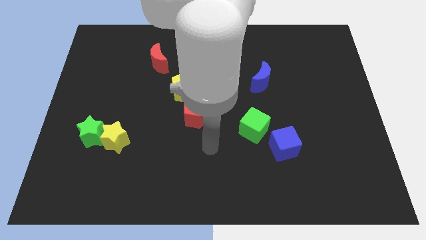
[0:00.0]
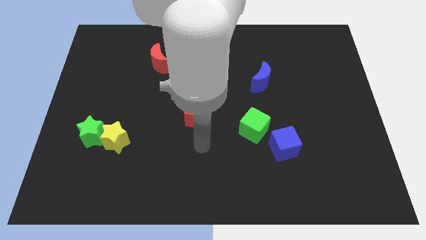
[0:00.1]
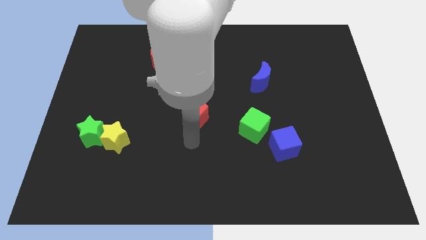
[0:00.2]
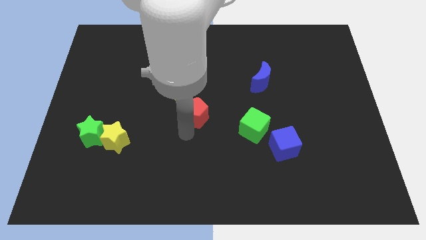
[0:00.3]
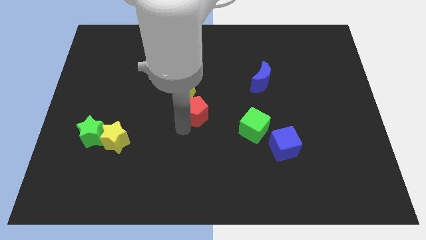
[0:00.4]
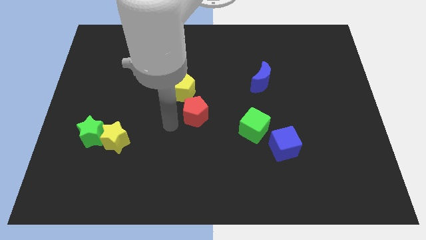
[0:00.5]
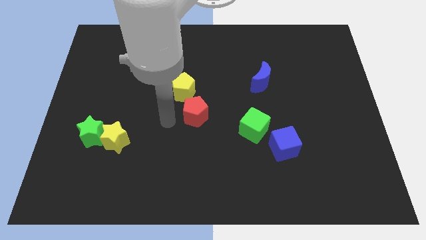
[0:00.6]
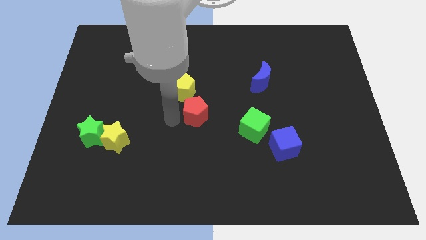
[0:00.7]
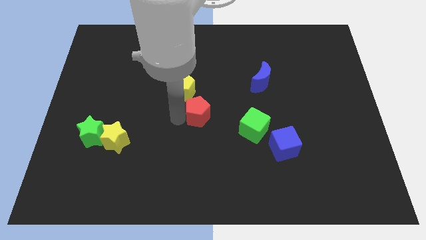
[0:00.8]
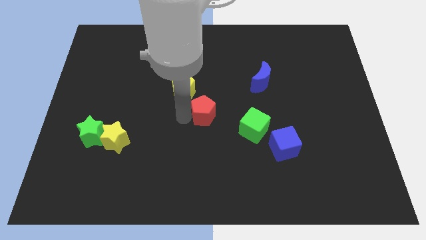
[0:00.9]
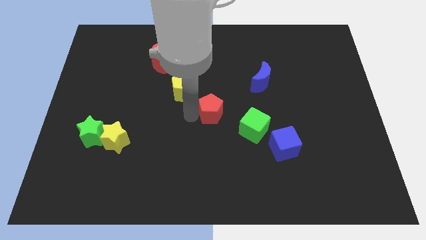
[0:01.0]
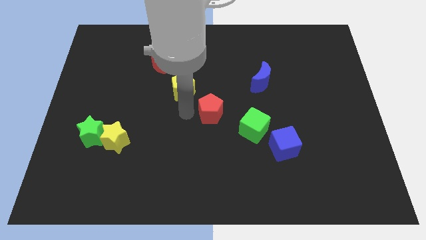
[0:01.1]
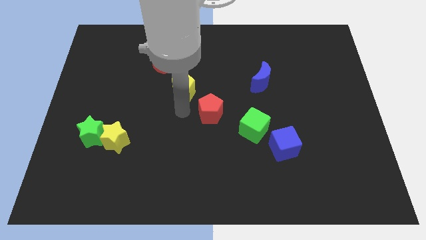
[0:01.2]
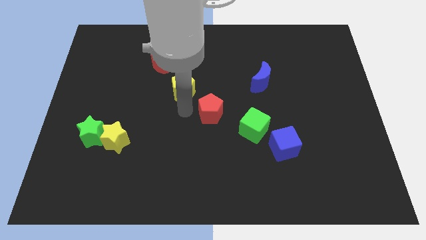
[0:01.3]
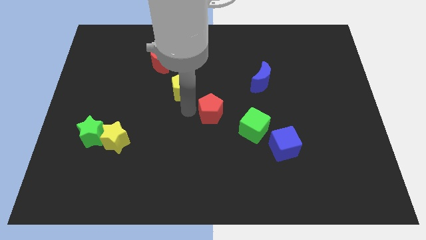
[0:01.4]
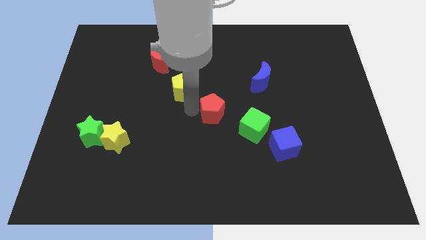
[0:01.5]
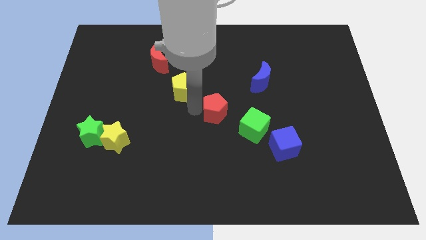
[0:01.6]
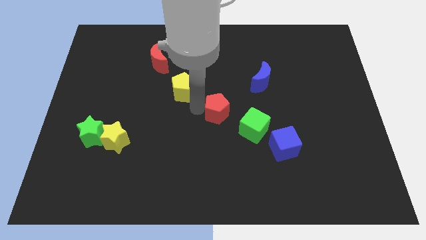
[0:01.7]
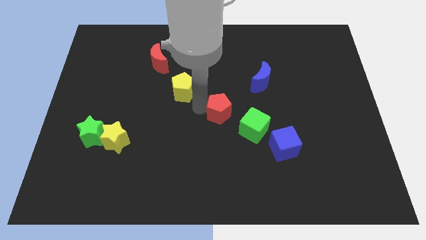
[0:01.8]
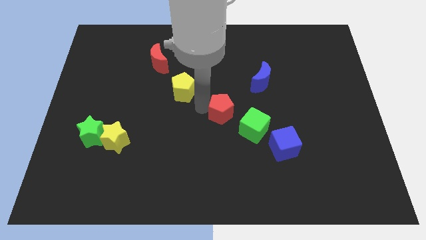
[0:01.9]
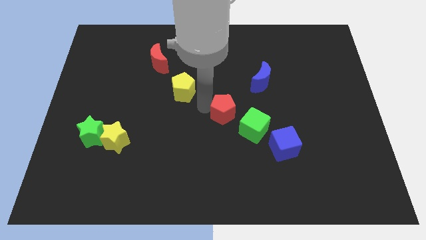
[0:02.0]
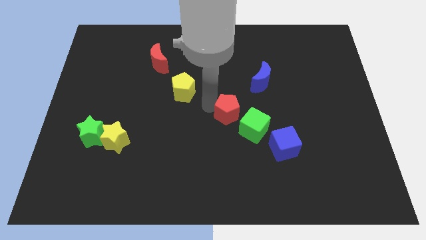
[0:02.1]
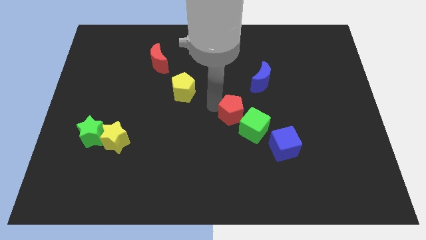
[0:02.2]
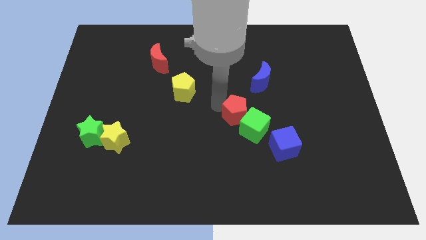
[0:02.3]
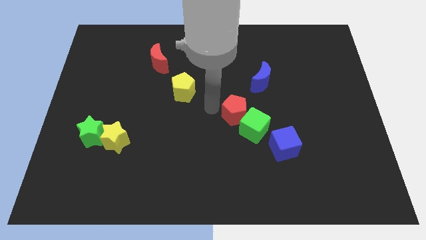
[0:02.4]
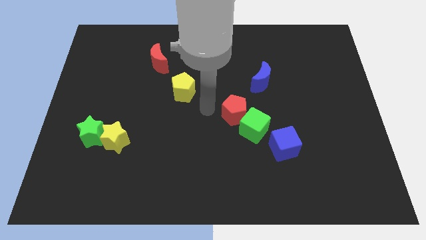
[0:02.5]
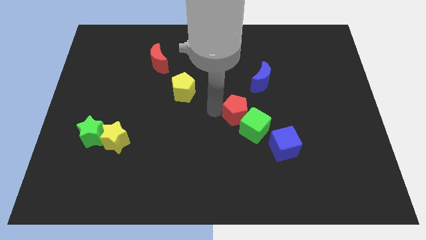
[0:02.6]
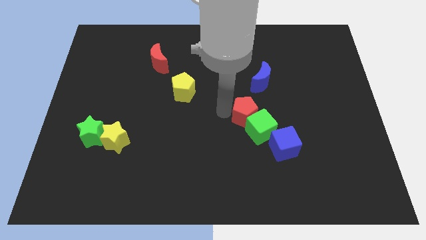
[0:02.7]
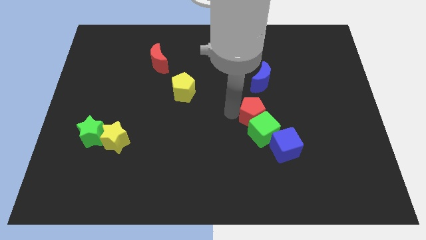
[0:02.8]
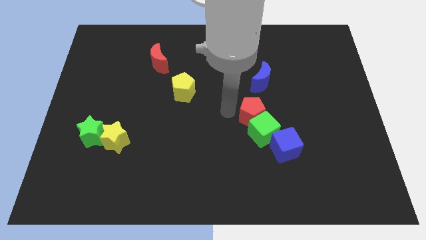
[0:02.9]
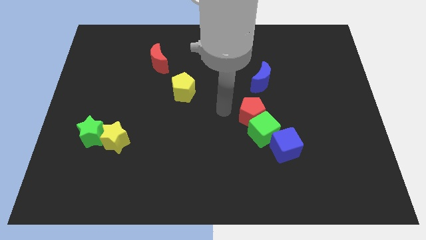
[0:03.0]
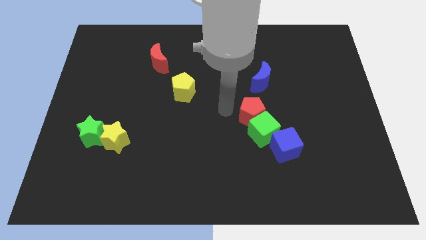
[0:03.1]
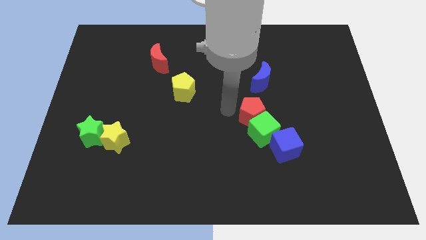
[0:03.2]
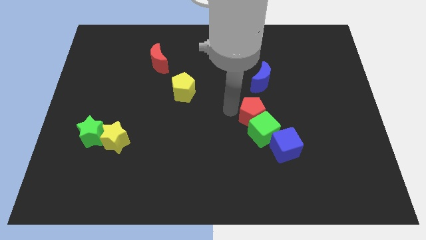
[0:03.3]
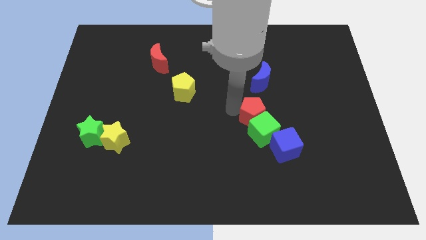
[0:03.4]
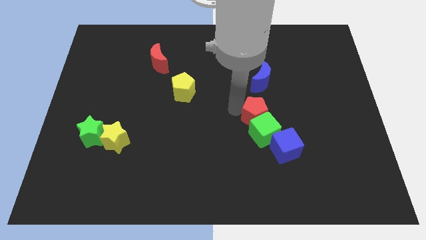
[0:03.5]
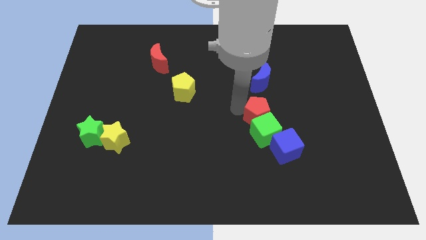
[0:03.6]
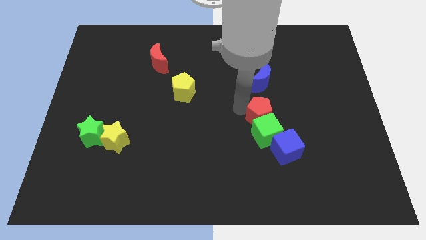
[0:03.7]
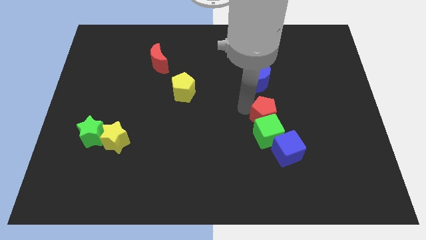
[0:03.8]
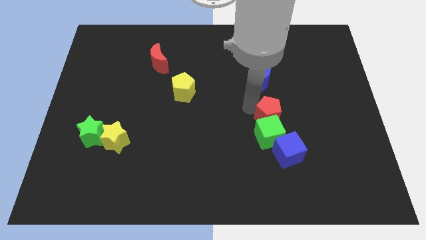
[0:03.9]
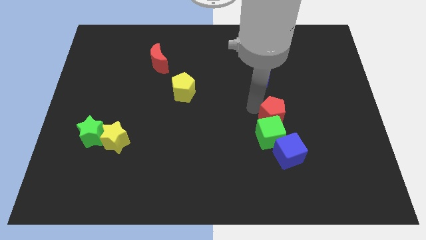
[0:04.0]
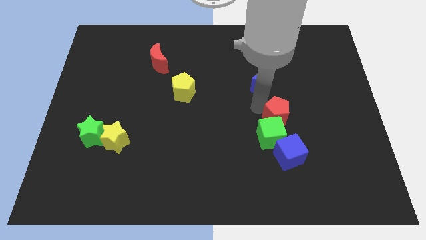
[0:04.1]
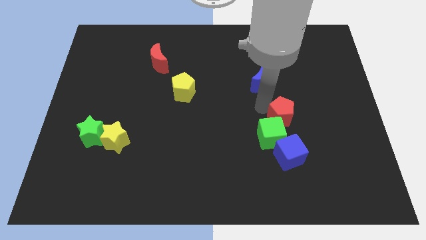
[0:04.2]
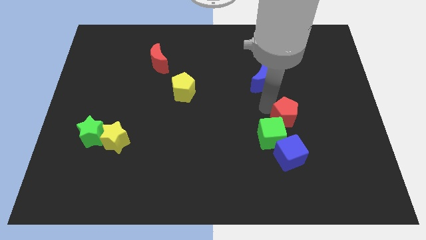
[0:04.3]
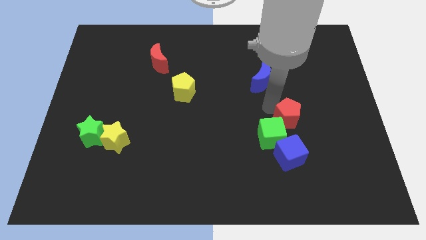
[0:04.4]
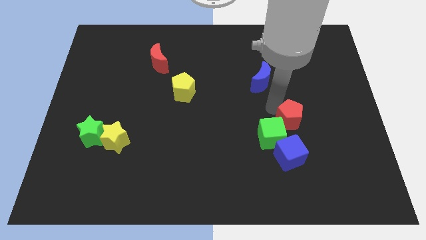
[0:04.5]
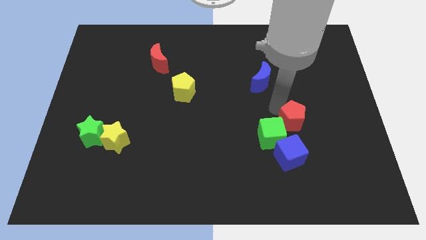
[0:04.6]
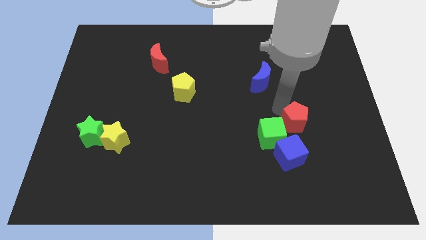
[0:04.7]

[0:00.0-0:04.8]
put the red pentagon to the top right side of the blue cube

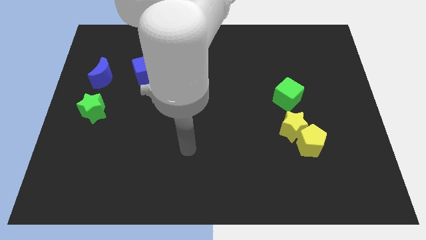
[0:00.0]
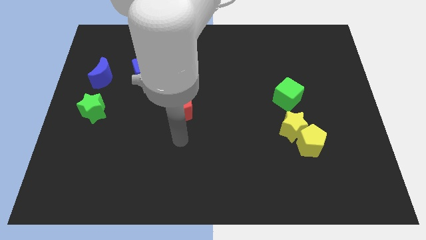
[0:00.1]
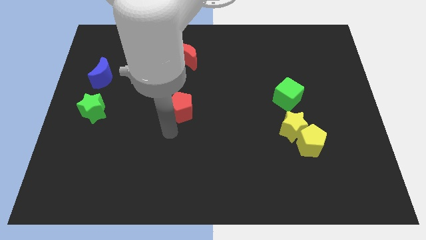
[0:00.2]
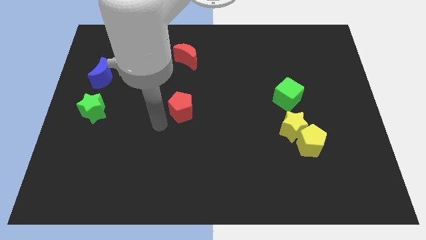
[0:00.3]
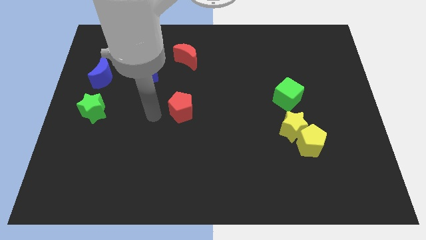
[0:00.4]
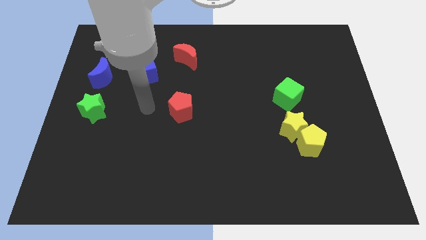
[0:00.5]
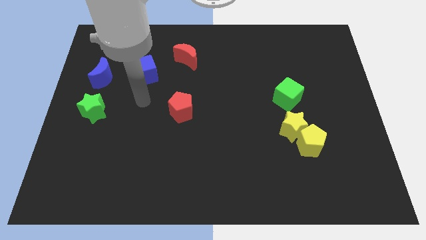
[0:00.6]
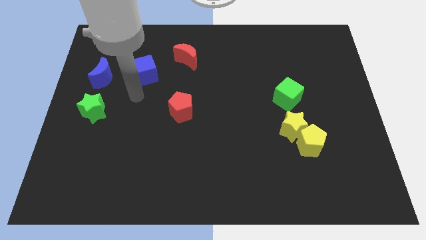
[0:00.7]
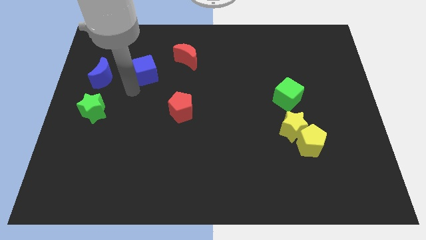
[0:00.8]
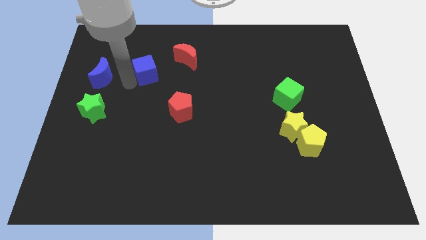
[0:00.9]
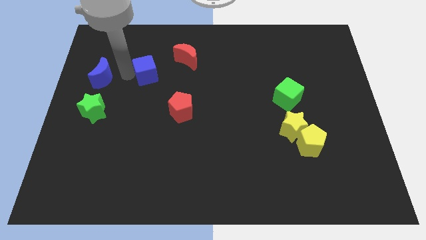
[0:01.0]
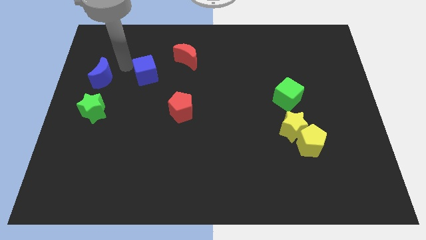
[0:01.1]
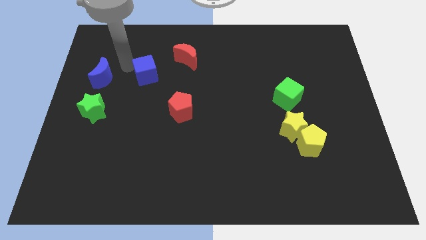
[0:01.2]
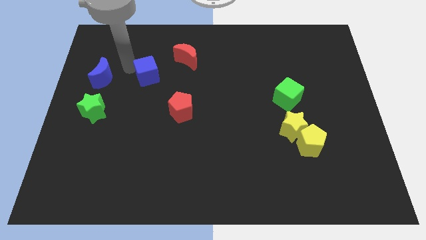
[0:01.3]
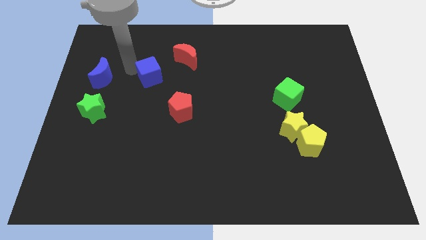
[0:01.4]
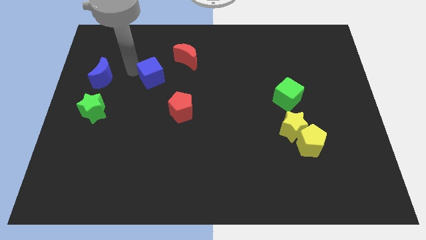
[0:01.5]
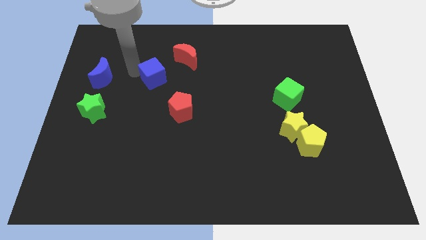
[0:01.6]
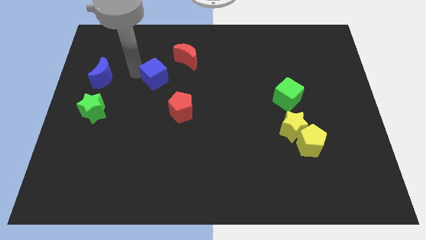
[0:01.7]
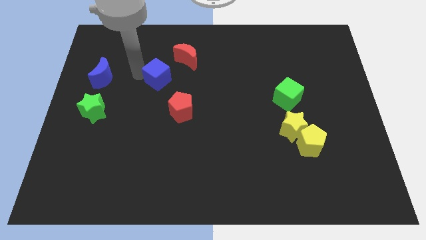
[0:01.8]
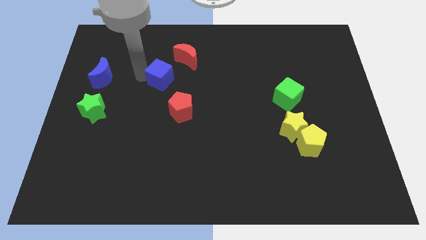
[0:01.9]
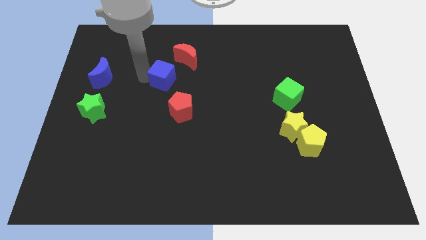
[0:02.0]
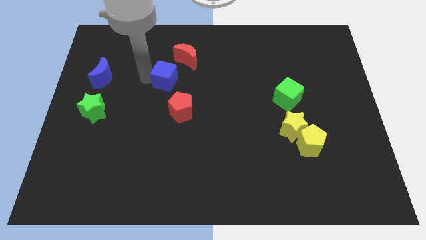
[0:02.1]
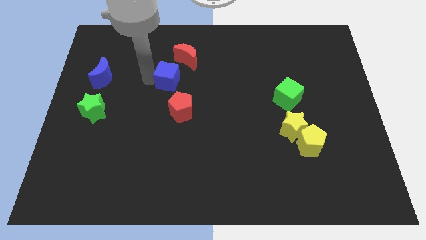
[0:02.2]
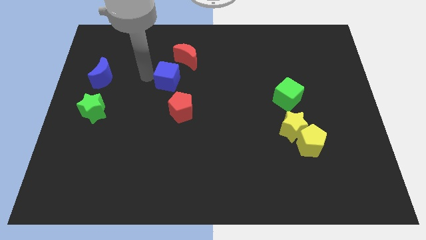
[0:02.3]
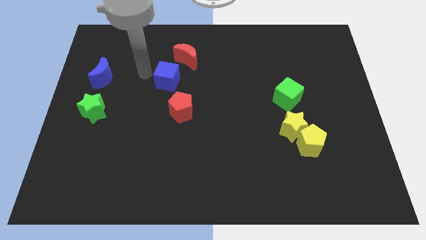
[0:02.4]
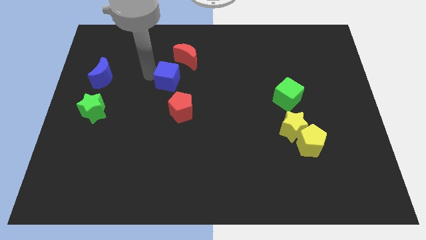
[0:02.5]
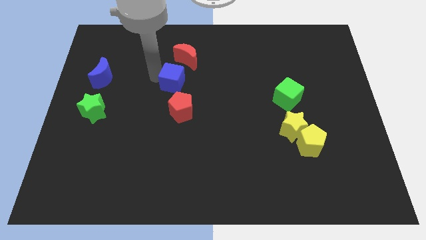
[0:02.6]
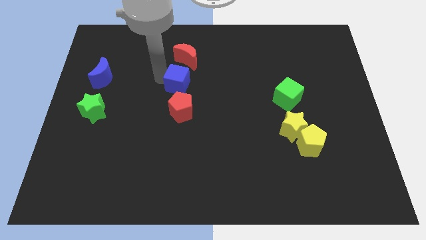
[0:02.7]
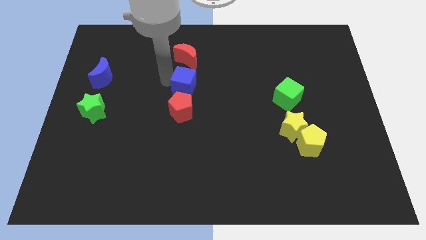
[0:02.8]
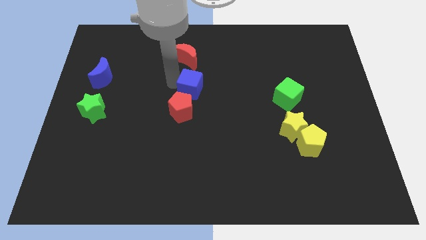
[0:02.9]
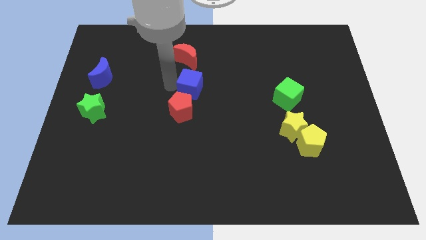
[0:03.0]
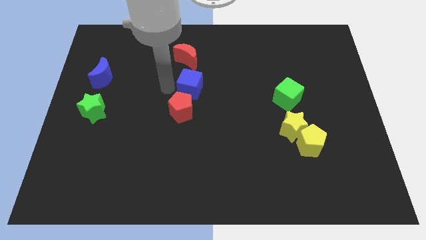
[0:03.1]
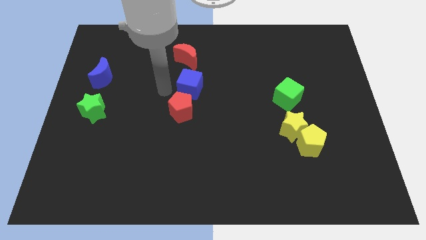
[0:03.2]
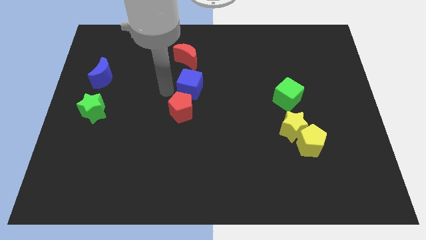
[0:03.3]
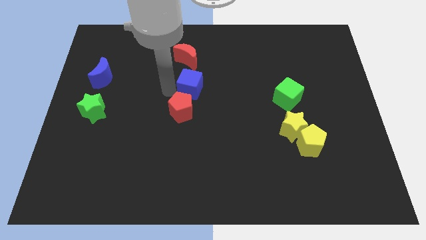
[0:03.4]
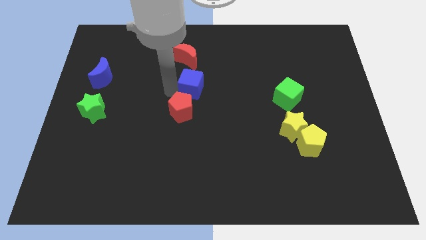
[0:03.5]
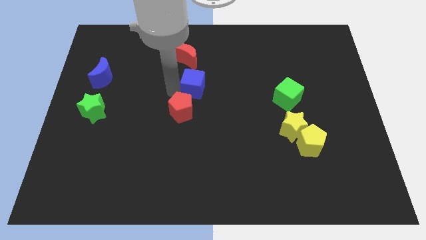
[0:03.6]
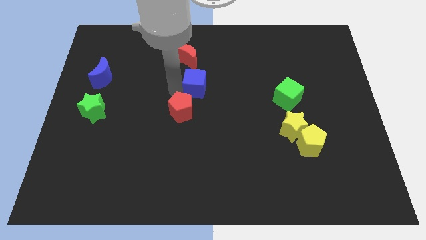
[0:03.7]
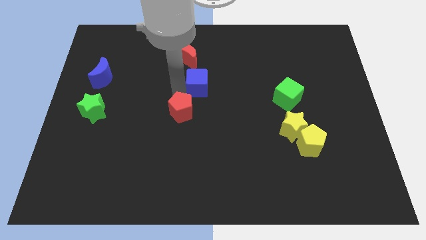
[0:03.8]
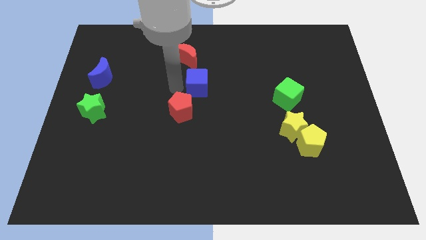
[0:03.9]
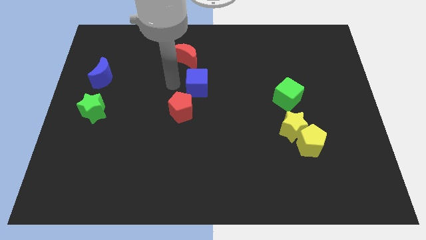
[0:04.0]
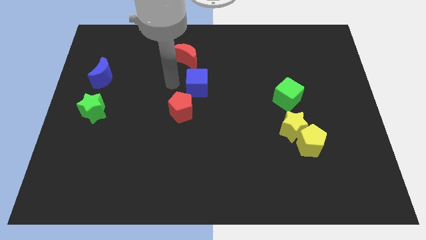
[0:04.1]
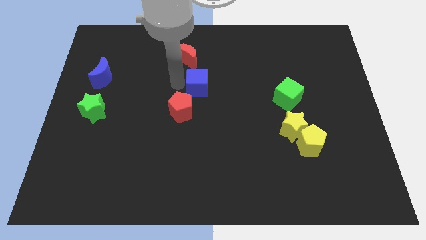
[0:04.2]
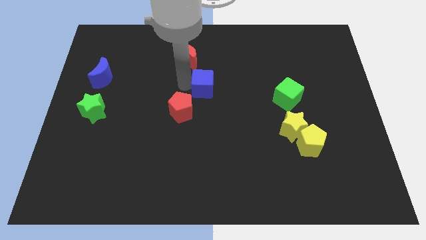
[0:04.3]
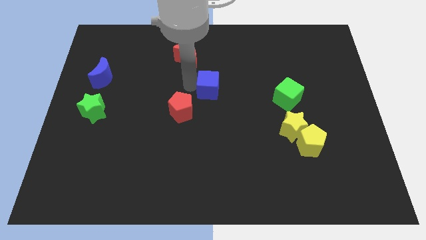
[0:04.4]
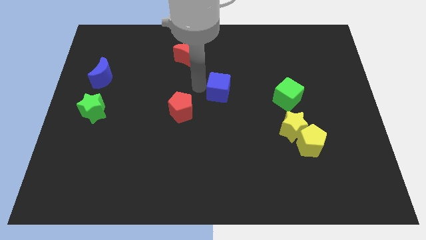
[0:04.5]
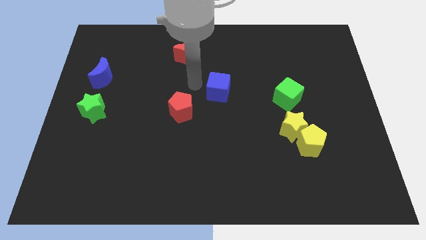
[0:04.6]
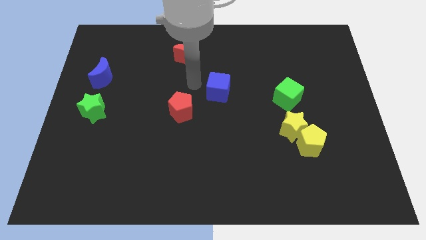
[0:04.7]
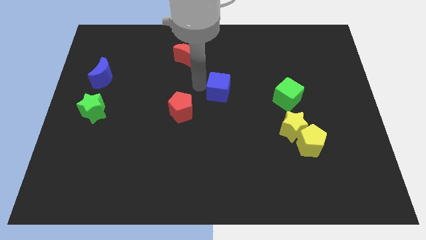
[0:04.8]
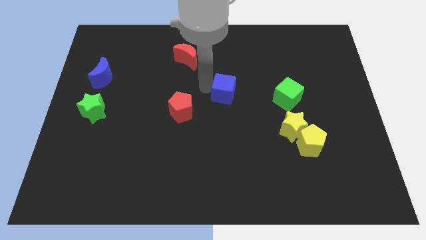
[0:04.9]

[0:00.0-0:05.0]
move the blue cube left of the green cube
